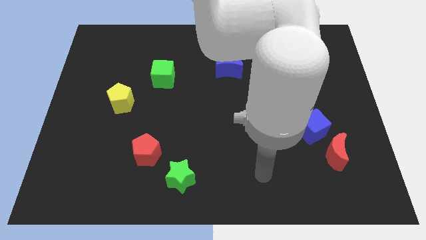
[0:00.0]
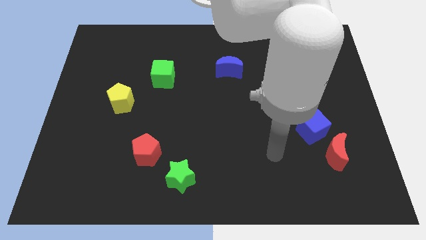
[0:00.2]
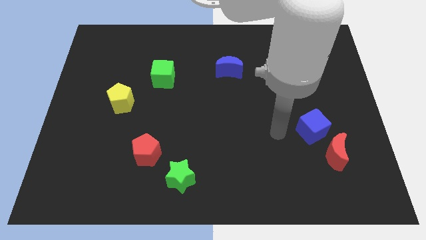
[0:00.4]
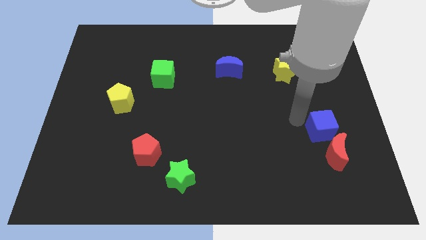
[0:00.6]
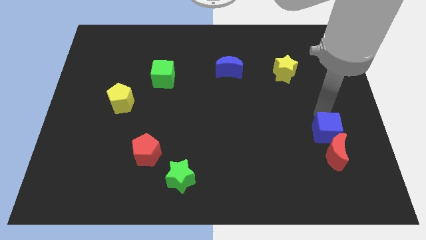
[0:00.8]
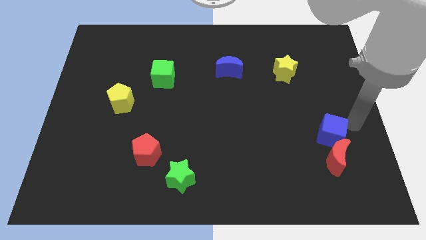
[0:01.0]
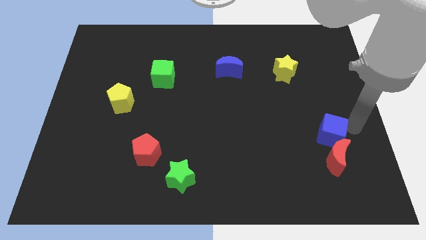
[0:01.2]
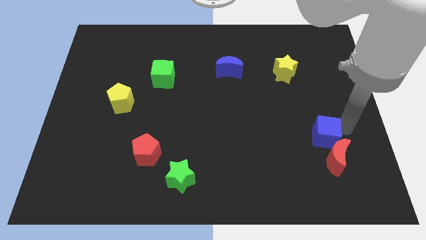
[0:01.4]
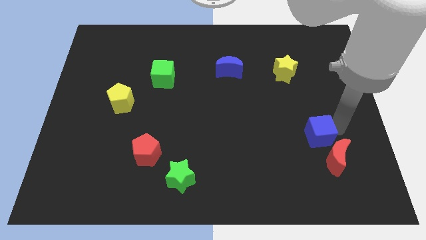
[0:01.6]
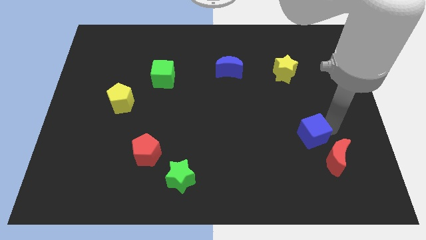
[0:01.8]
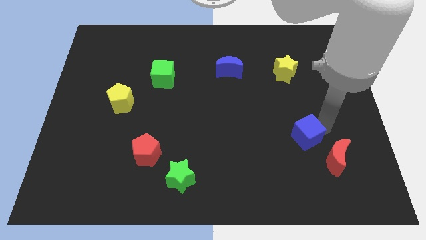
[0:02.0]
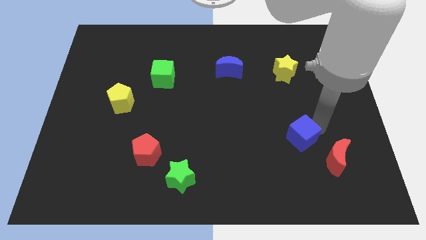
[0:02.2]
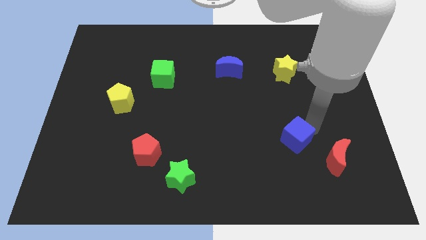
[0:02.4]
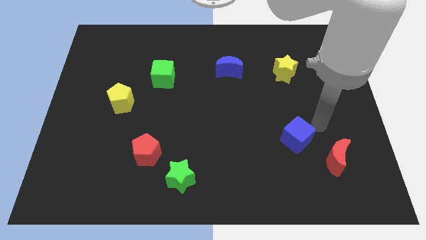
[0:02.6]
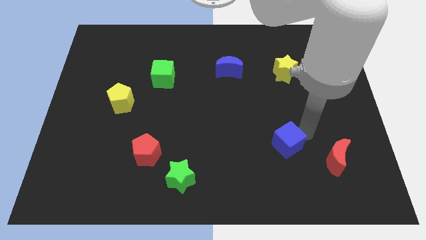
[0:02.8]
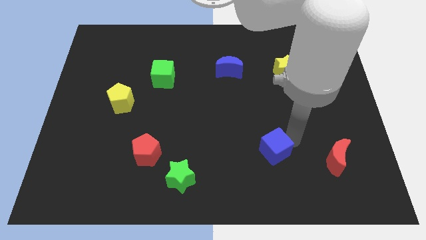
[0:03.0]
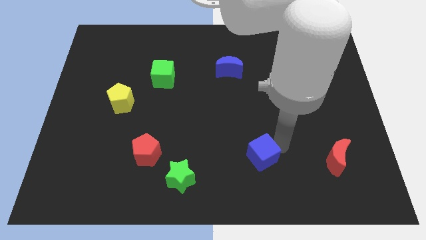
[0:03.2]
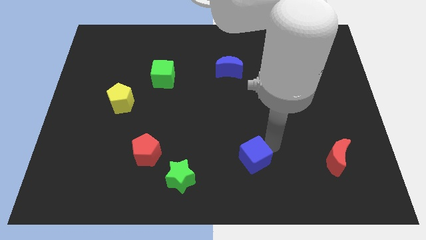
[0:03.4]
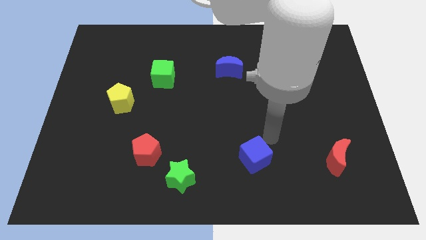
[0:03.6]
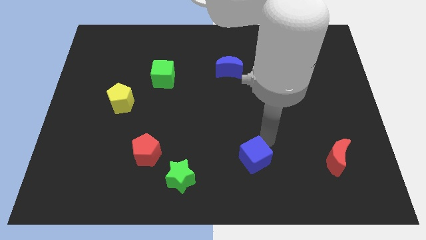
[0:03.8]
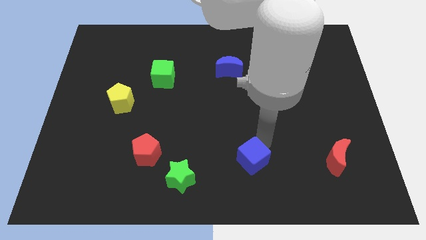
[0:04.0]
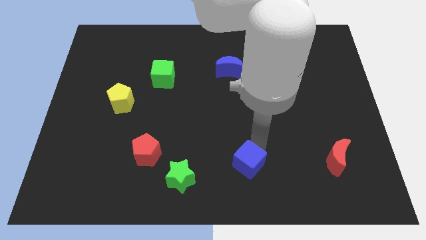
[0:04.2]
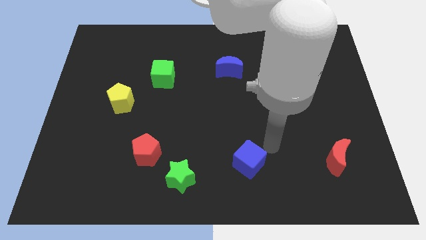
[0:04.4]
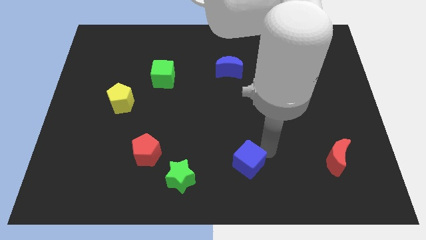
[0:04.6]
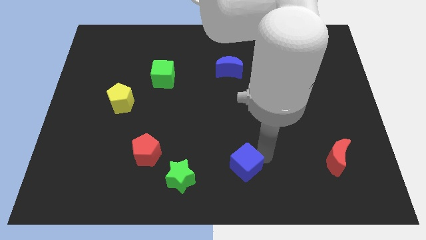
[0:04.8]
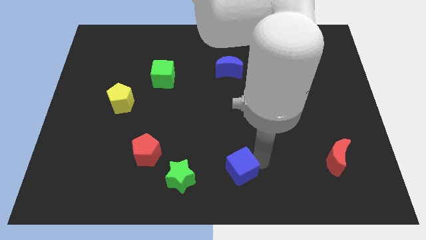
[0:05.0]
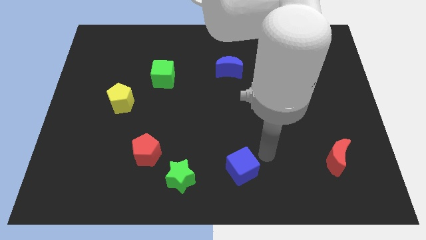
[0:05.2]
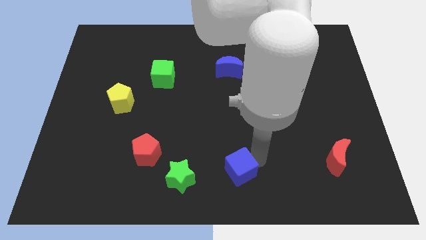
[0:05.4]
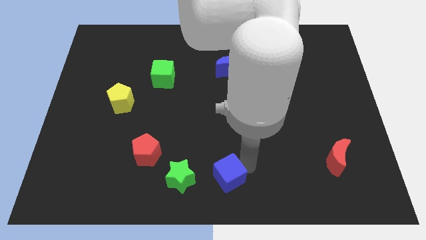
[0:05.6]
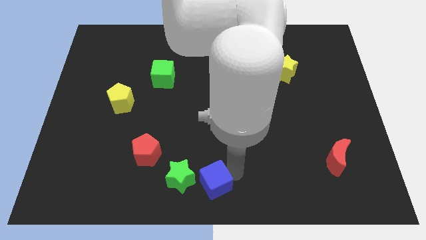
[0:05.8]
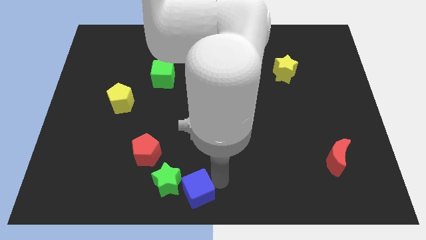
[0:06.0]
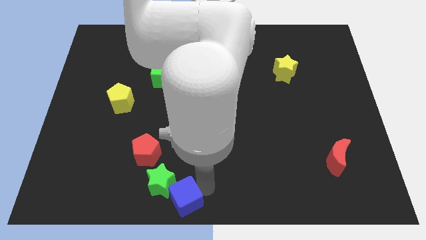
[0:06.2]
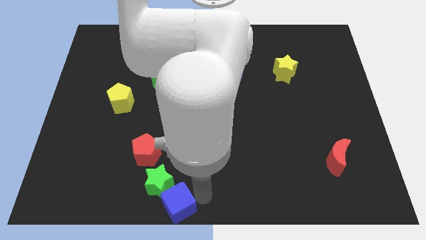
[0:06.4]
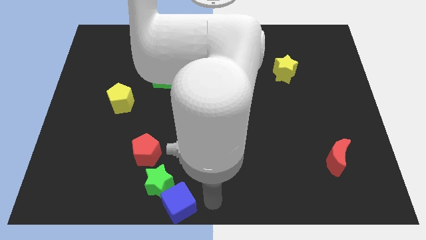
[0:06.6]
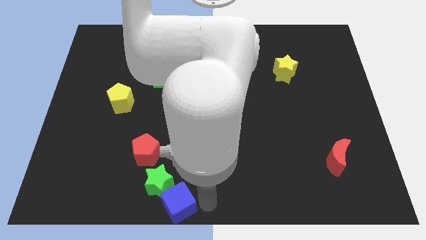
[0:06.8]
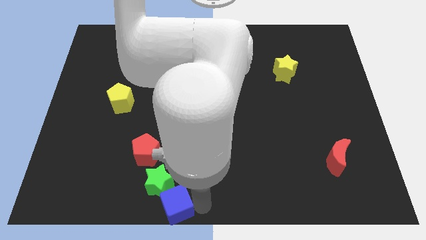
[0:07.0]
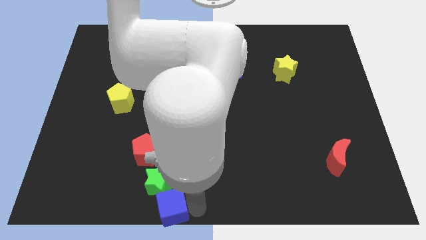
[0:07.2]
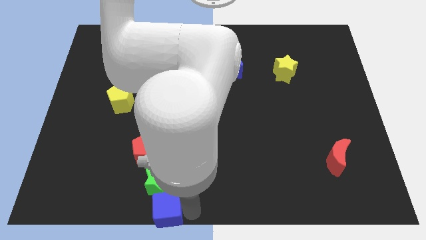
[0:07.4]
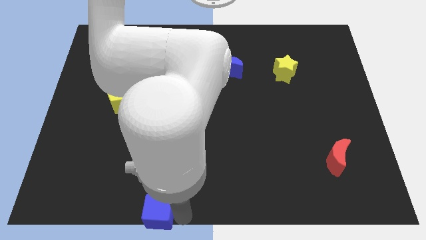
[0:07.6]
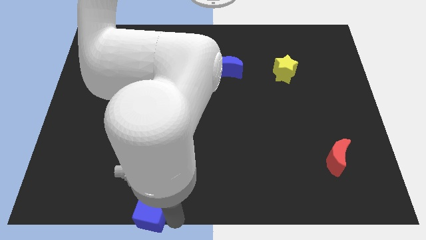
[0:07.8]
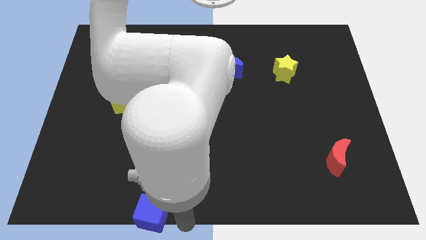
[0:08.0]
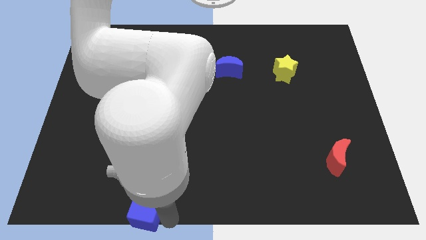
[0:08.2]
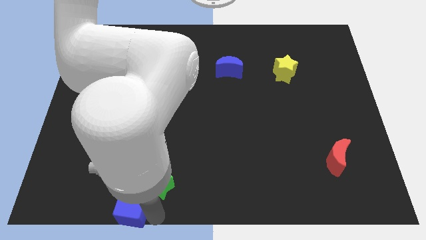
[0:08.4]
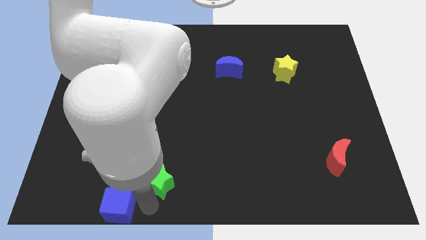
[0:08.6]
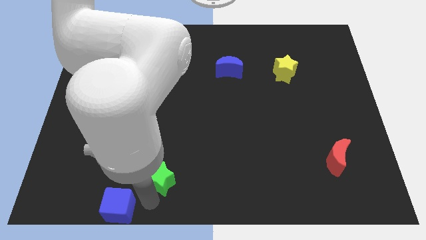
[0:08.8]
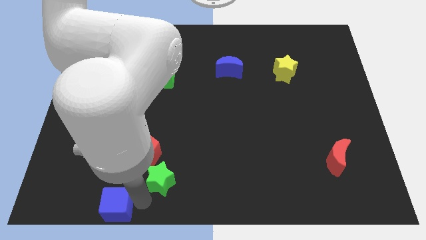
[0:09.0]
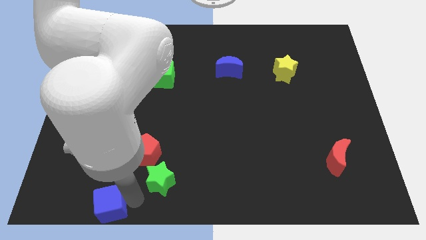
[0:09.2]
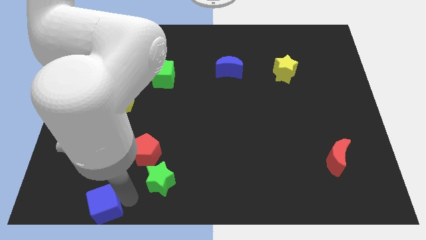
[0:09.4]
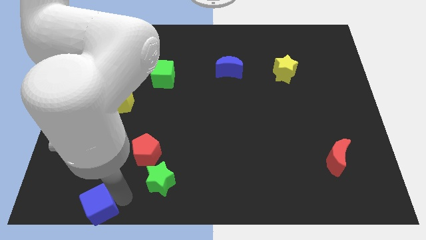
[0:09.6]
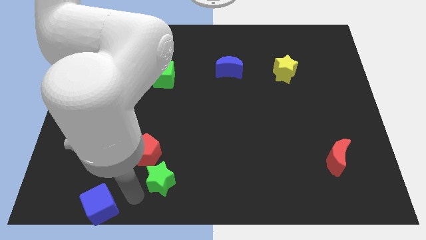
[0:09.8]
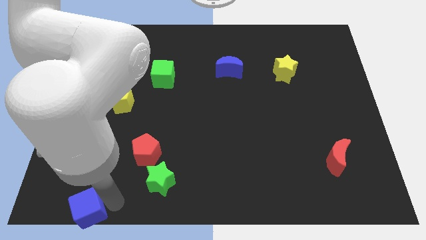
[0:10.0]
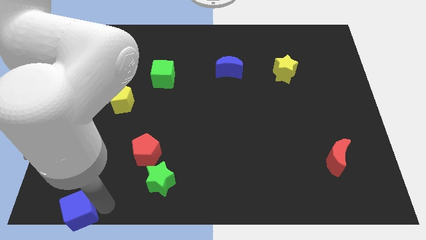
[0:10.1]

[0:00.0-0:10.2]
slide the blue cube to the lower left corner

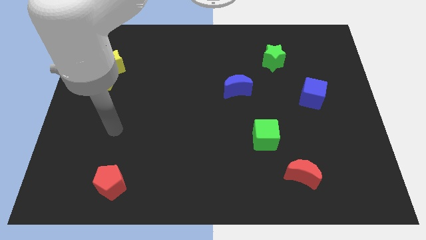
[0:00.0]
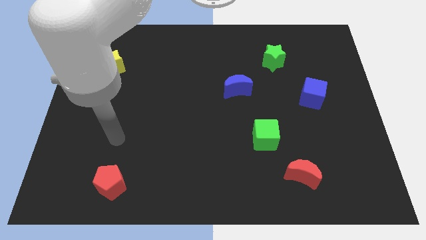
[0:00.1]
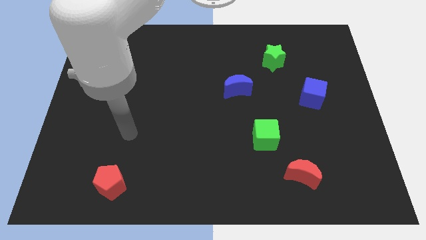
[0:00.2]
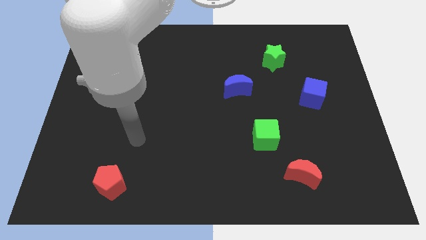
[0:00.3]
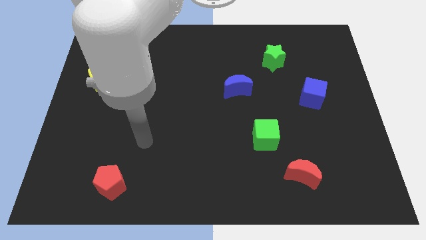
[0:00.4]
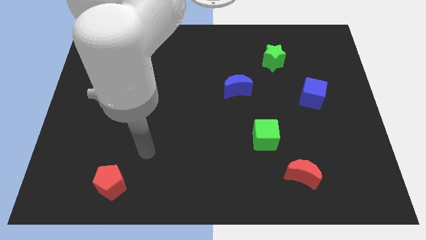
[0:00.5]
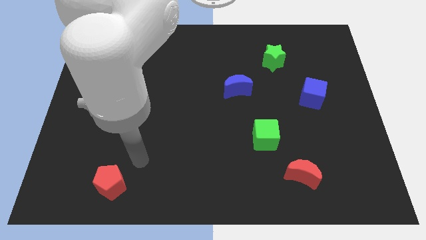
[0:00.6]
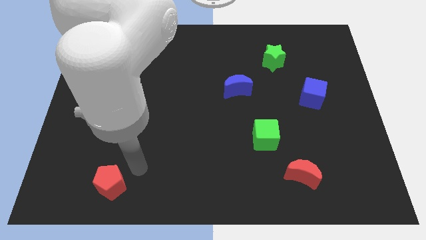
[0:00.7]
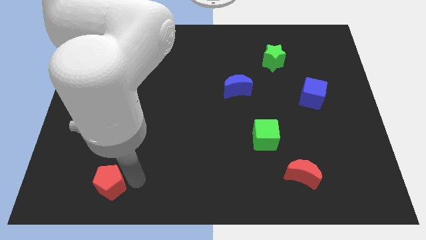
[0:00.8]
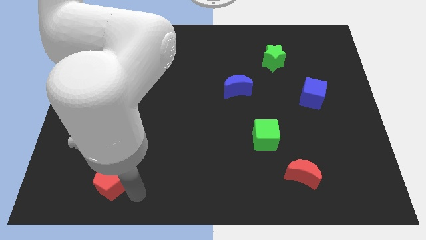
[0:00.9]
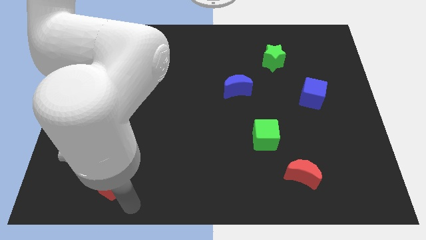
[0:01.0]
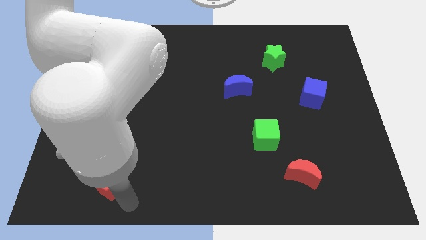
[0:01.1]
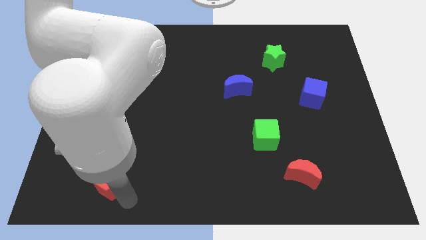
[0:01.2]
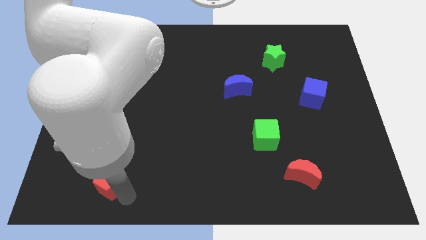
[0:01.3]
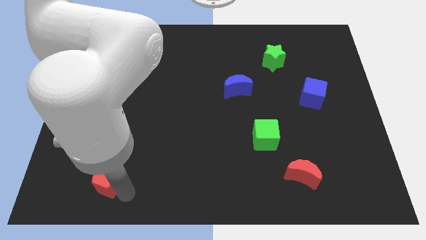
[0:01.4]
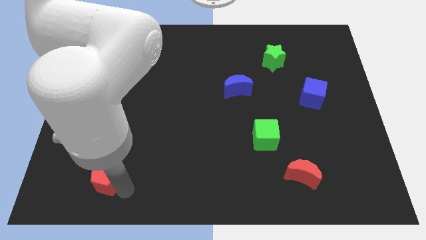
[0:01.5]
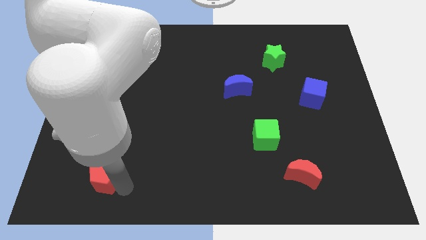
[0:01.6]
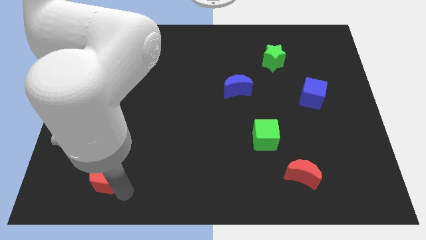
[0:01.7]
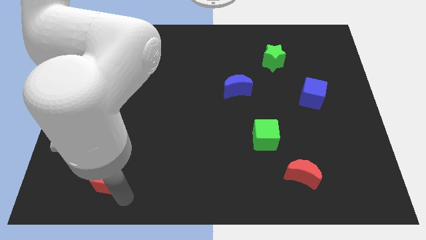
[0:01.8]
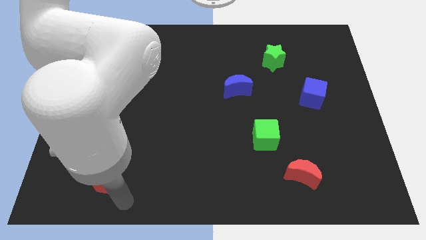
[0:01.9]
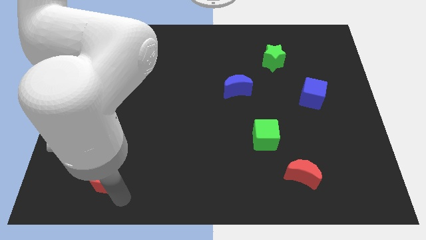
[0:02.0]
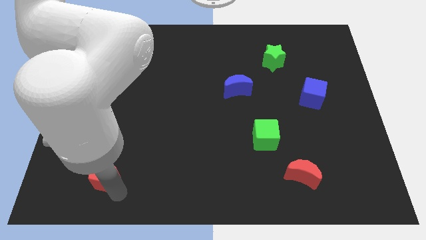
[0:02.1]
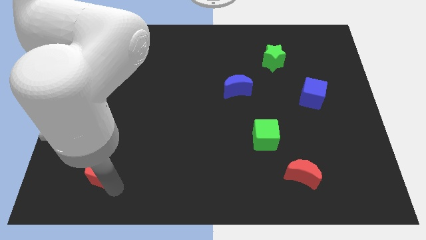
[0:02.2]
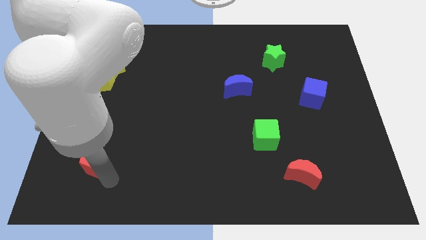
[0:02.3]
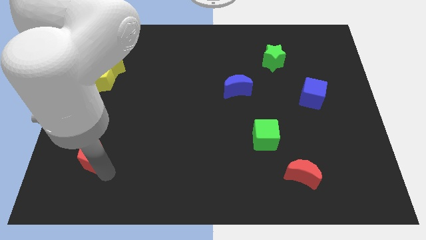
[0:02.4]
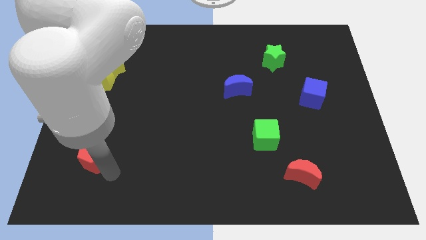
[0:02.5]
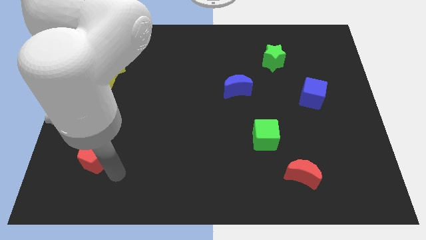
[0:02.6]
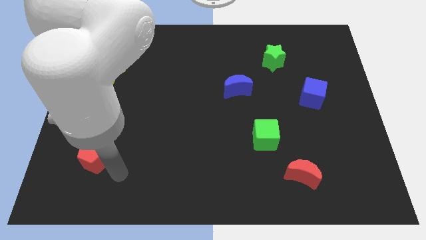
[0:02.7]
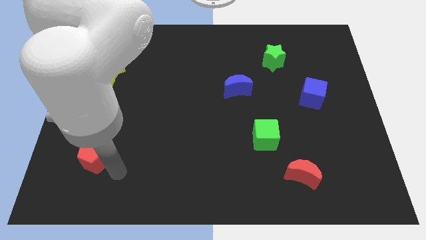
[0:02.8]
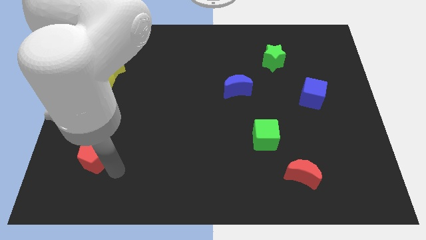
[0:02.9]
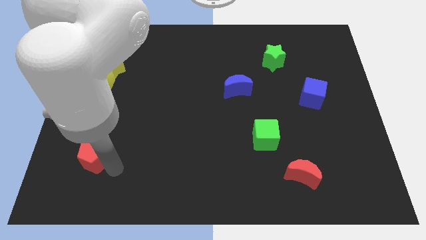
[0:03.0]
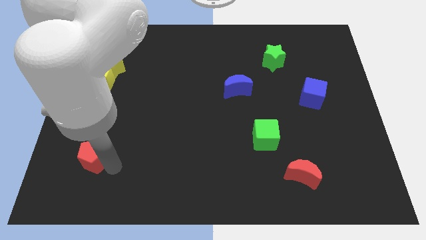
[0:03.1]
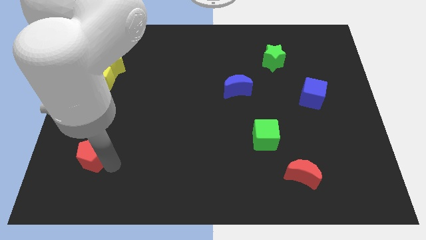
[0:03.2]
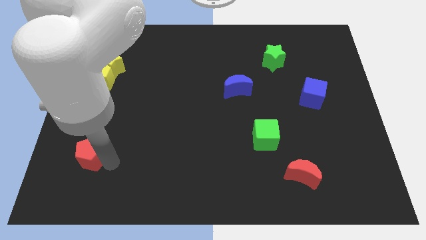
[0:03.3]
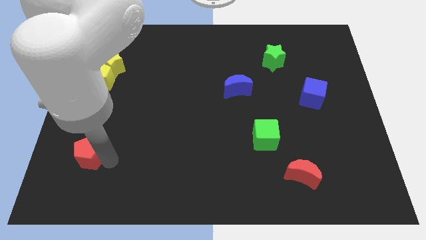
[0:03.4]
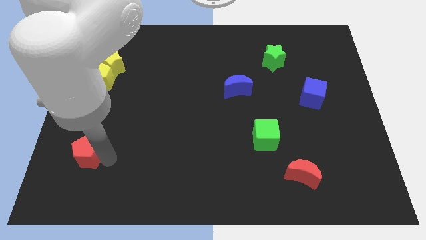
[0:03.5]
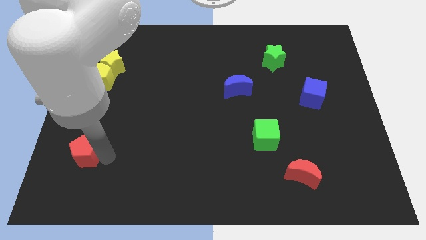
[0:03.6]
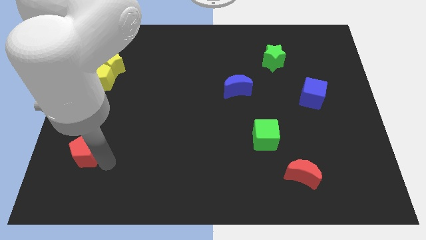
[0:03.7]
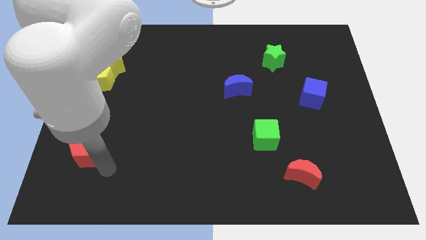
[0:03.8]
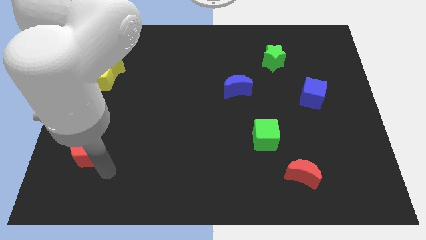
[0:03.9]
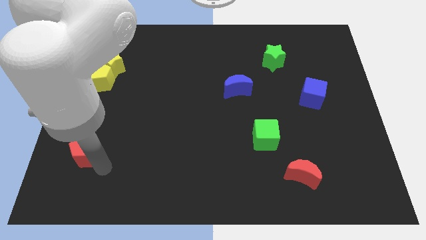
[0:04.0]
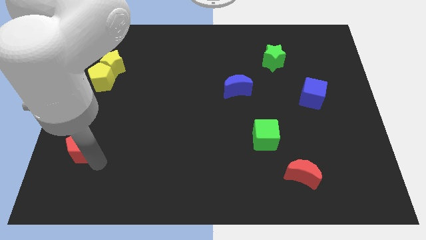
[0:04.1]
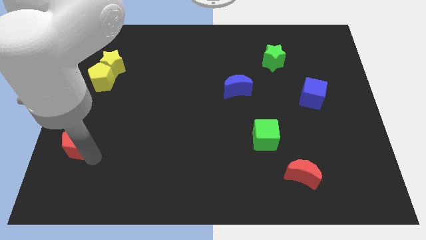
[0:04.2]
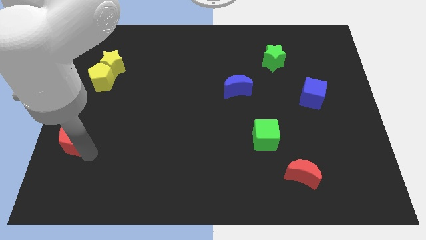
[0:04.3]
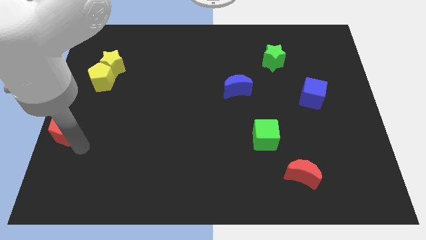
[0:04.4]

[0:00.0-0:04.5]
slide the red pentagon to the center left
